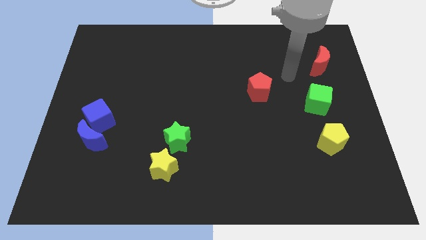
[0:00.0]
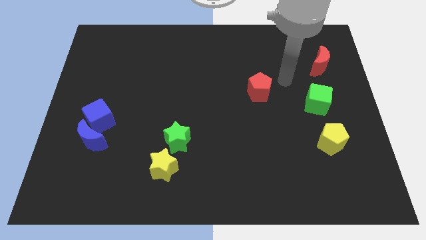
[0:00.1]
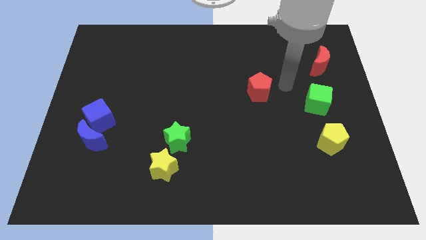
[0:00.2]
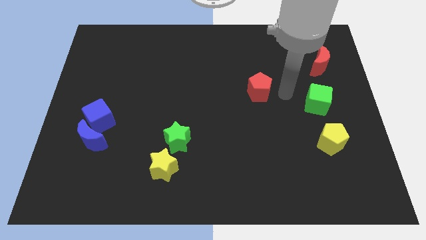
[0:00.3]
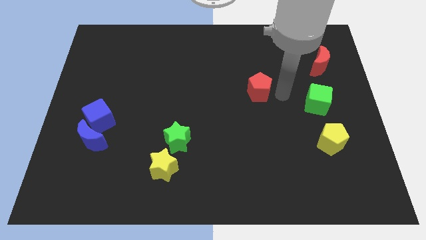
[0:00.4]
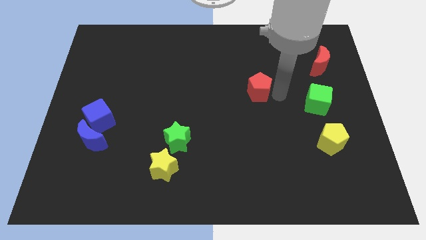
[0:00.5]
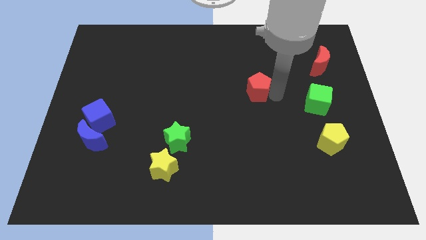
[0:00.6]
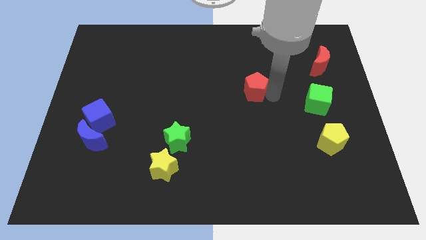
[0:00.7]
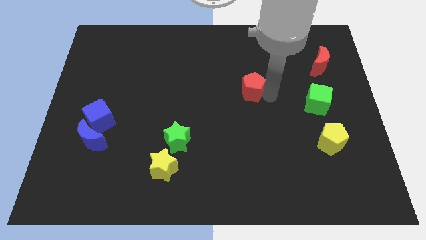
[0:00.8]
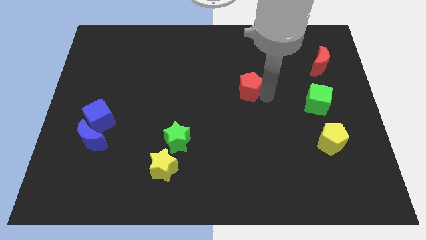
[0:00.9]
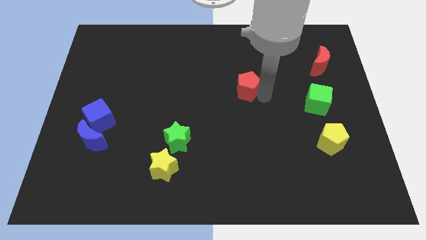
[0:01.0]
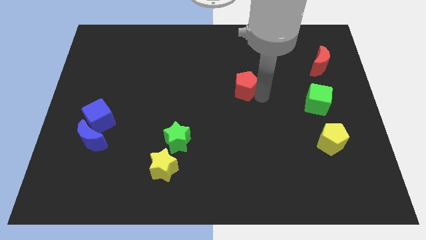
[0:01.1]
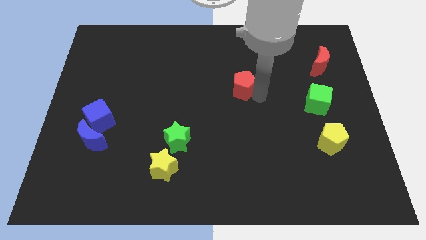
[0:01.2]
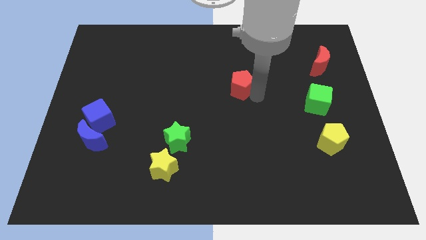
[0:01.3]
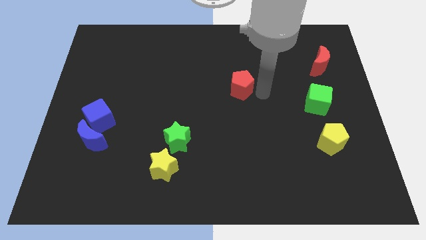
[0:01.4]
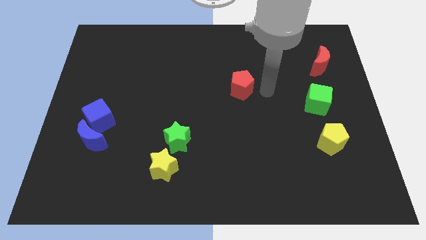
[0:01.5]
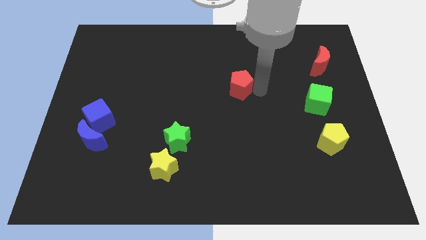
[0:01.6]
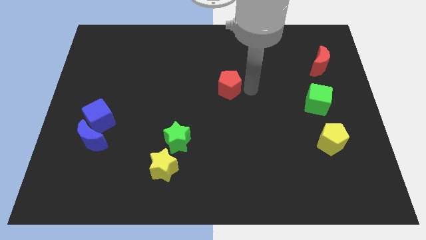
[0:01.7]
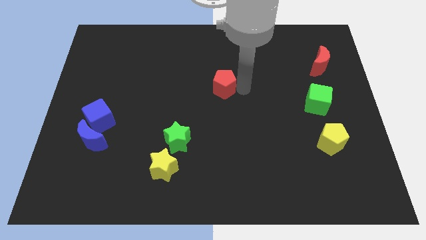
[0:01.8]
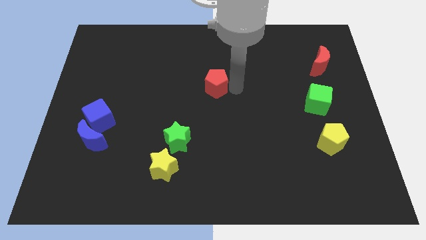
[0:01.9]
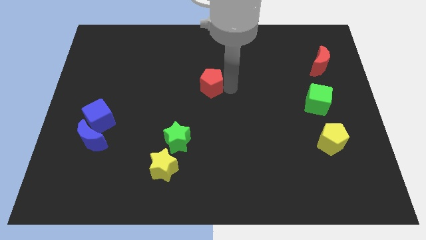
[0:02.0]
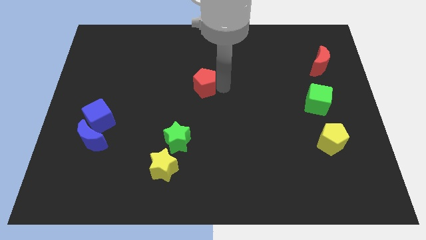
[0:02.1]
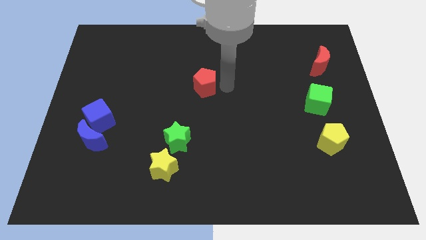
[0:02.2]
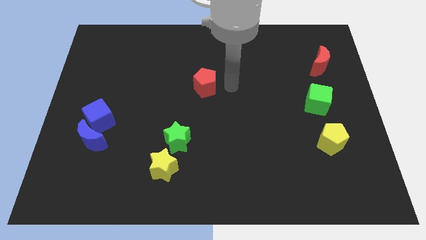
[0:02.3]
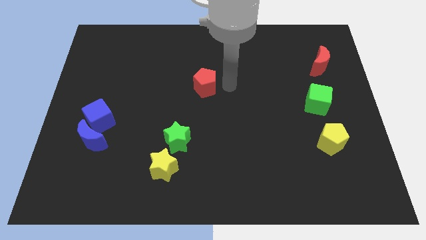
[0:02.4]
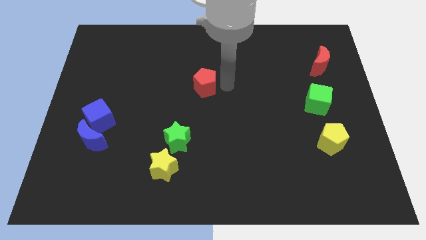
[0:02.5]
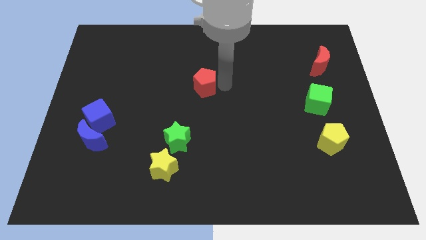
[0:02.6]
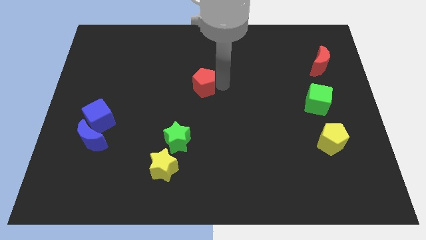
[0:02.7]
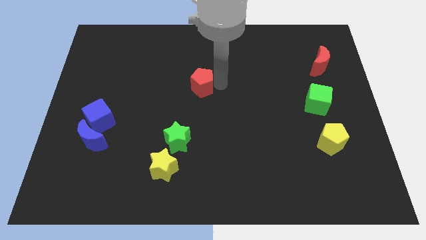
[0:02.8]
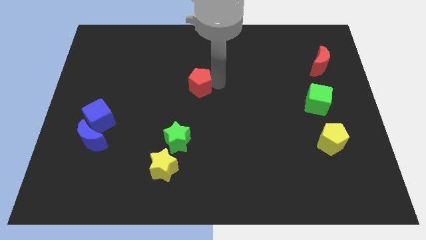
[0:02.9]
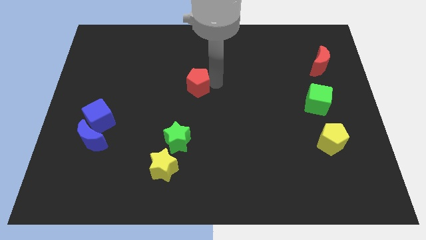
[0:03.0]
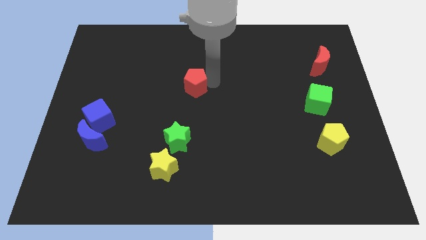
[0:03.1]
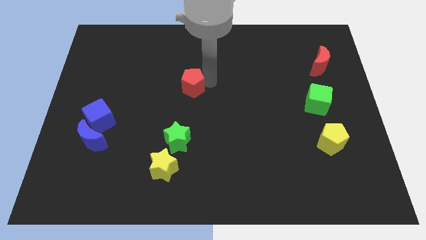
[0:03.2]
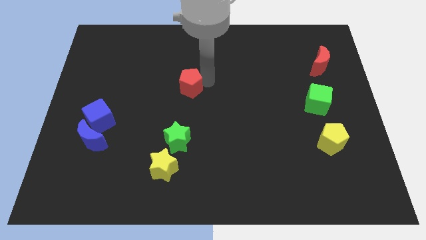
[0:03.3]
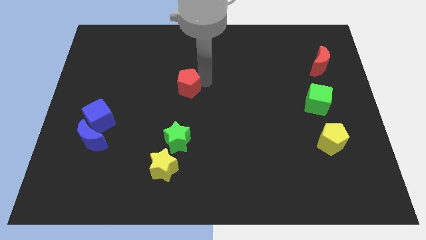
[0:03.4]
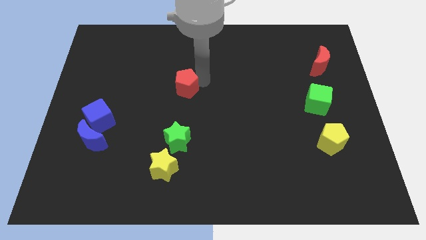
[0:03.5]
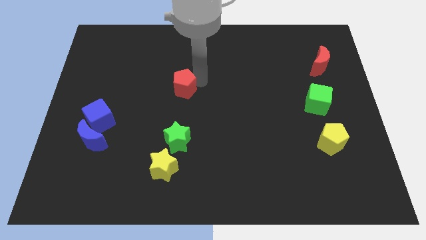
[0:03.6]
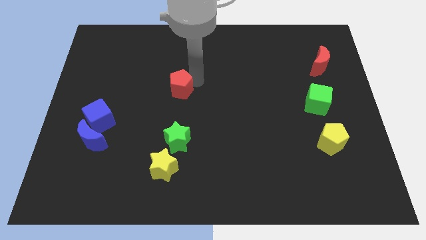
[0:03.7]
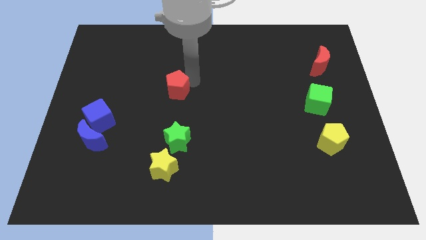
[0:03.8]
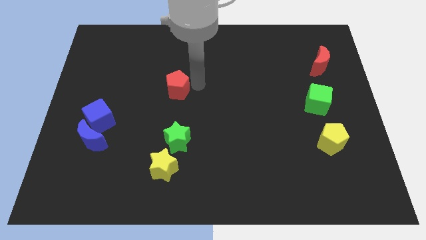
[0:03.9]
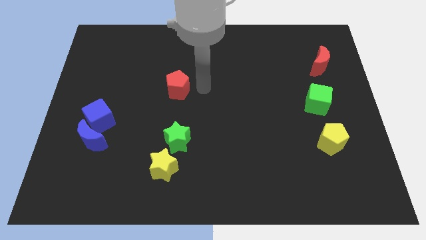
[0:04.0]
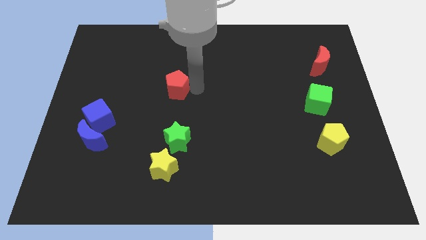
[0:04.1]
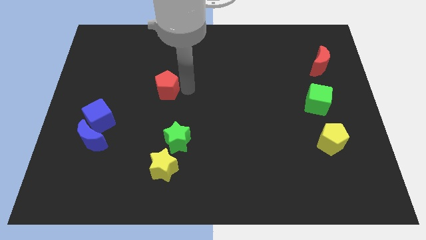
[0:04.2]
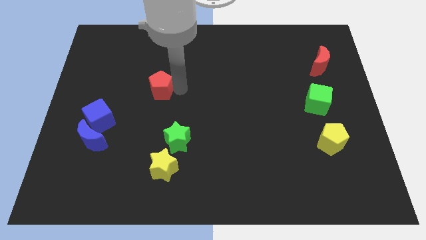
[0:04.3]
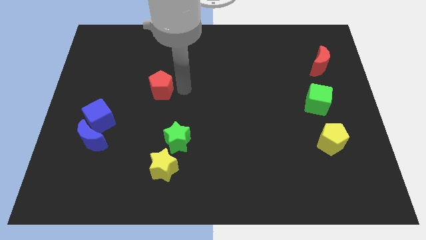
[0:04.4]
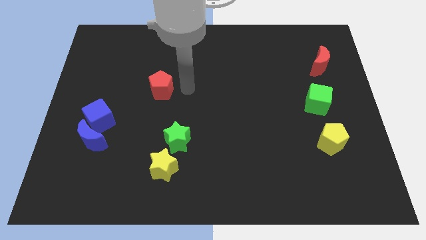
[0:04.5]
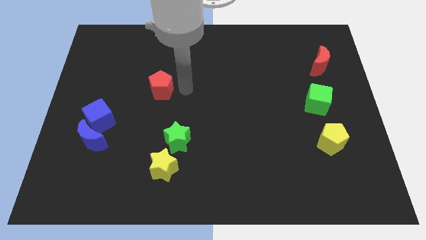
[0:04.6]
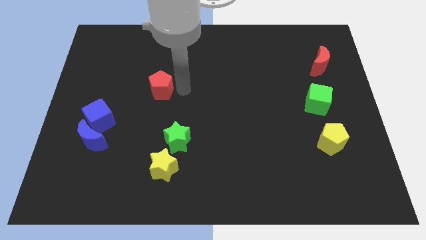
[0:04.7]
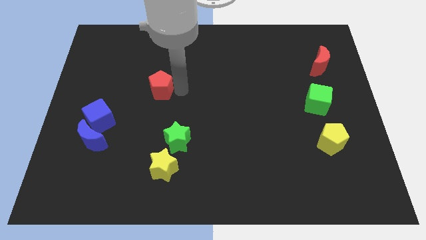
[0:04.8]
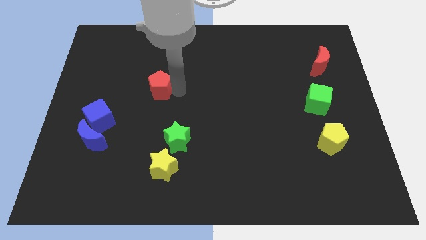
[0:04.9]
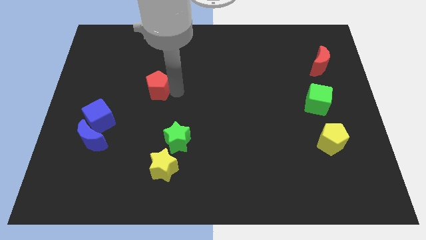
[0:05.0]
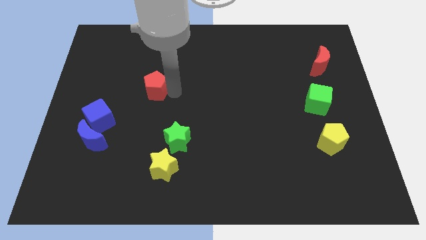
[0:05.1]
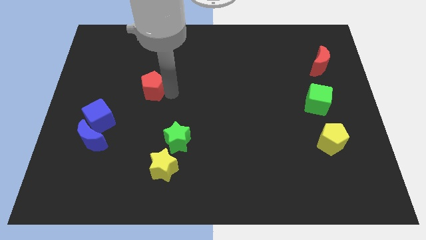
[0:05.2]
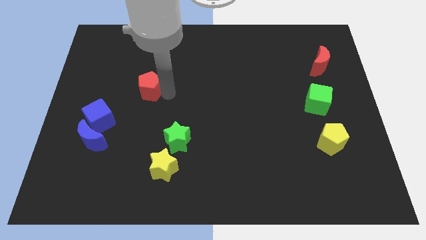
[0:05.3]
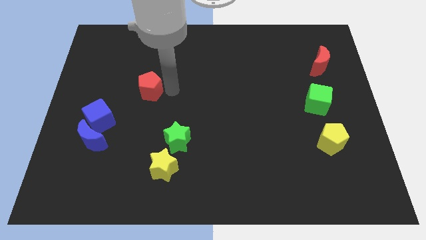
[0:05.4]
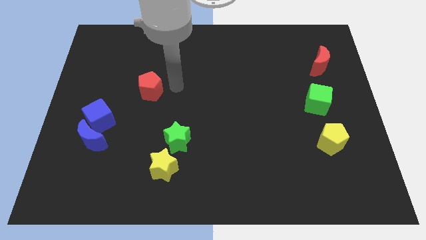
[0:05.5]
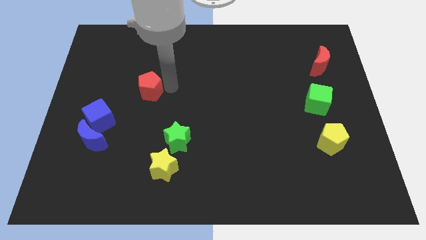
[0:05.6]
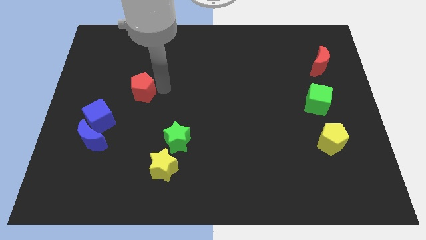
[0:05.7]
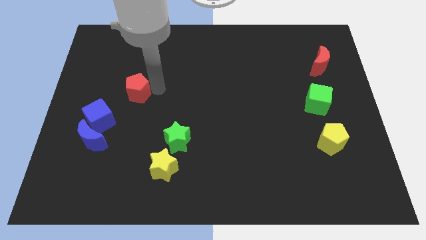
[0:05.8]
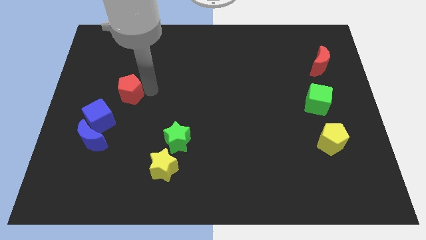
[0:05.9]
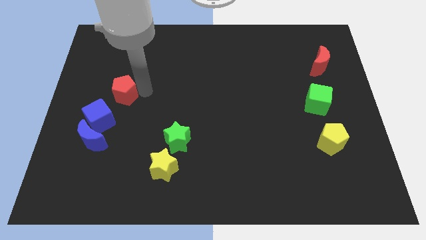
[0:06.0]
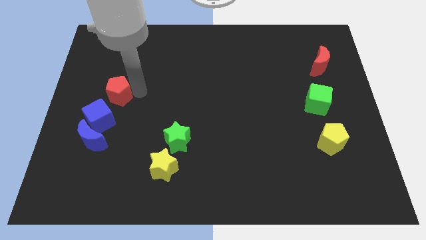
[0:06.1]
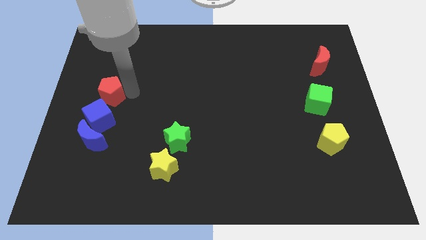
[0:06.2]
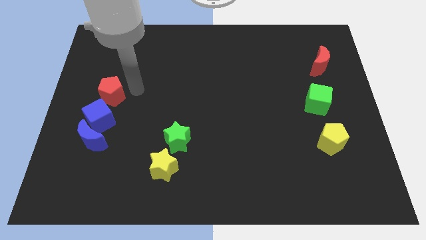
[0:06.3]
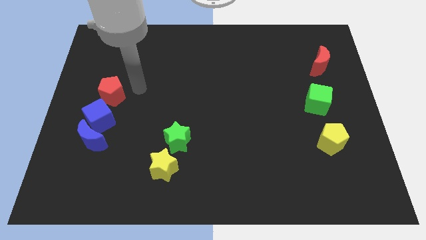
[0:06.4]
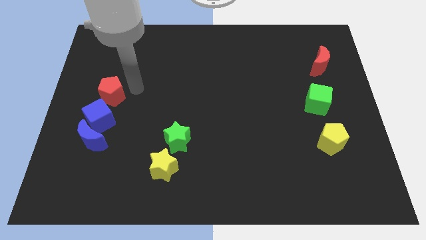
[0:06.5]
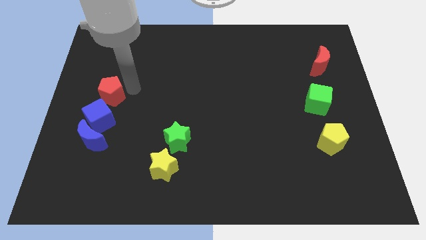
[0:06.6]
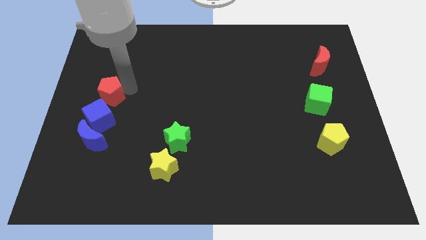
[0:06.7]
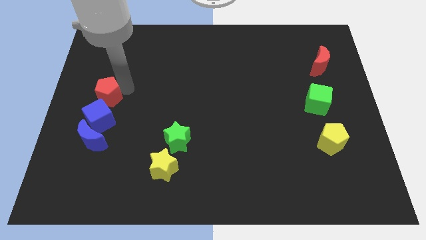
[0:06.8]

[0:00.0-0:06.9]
push the red pentagon to the left side of the board
